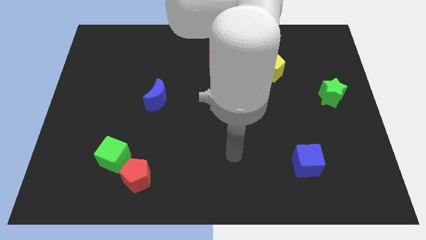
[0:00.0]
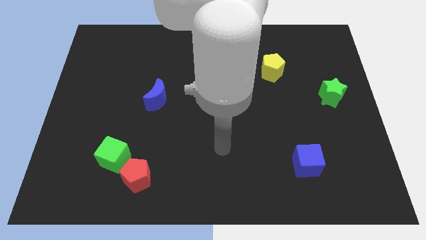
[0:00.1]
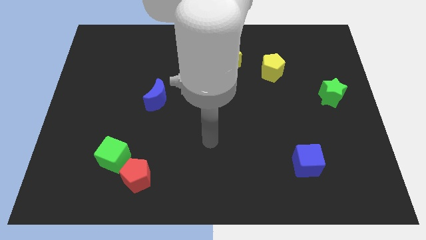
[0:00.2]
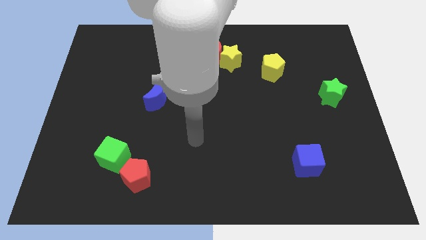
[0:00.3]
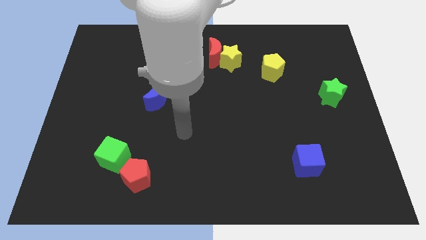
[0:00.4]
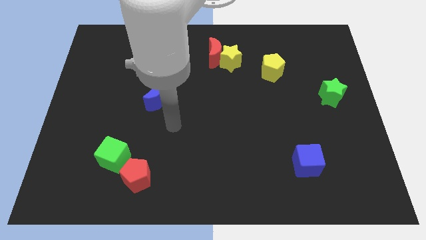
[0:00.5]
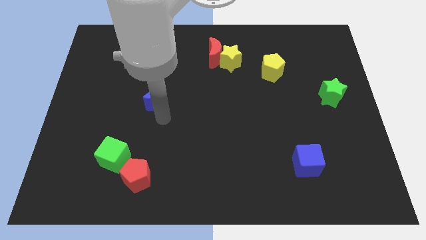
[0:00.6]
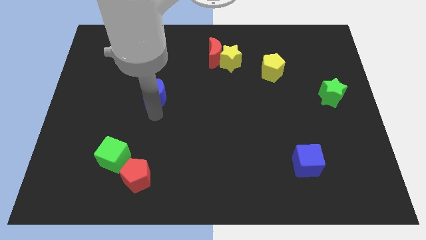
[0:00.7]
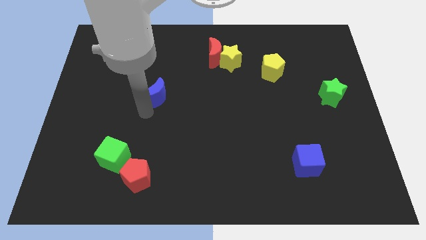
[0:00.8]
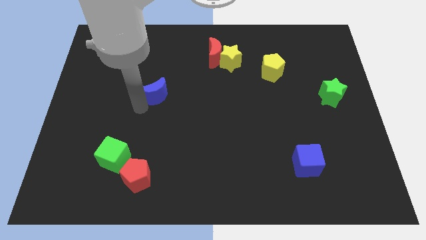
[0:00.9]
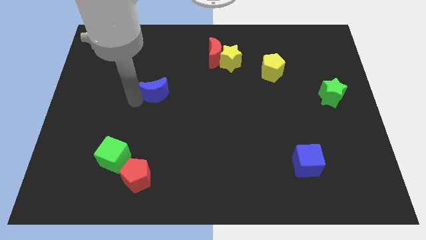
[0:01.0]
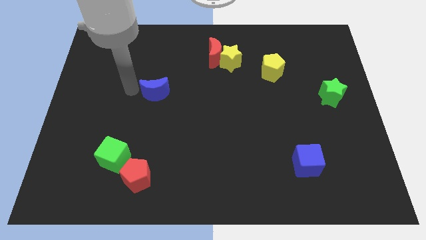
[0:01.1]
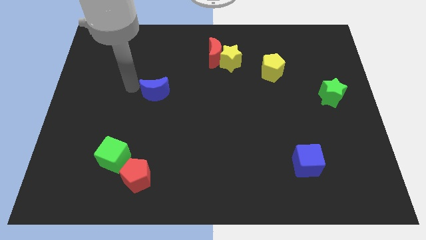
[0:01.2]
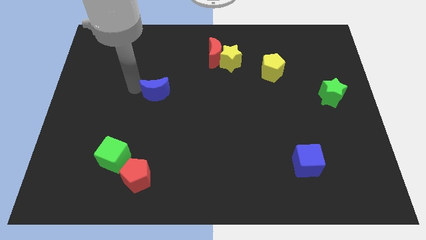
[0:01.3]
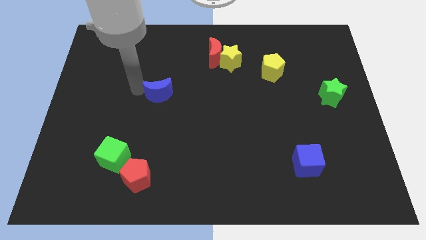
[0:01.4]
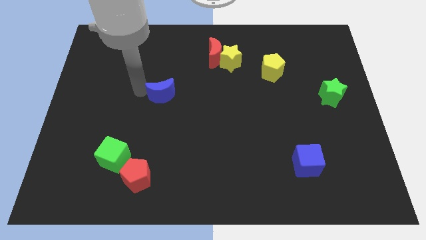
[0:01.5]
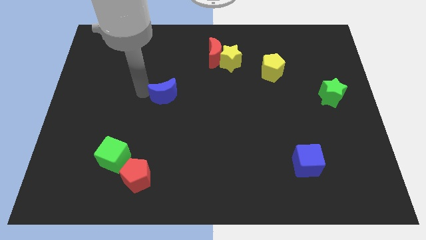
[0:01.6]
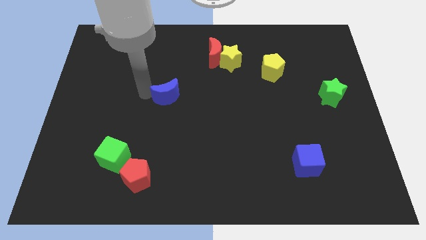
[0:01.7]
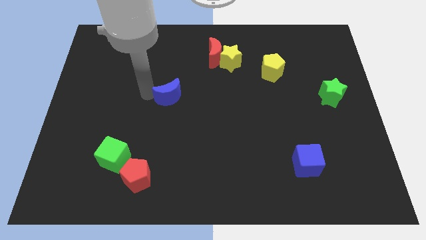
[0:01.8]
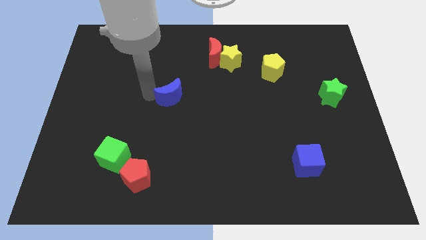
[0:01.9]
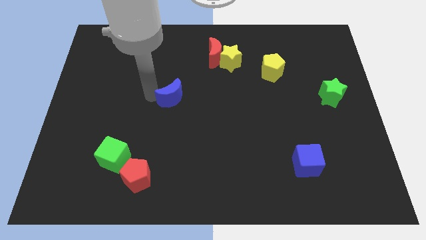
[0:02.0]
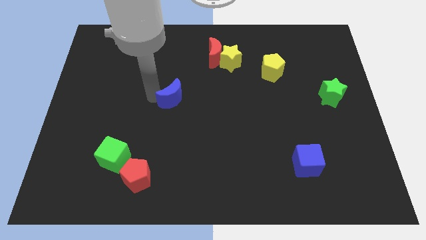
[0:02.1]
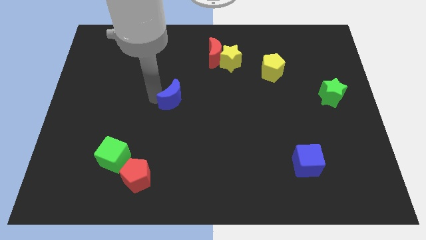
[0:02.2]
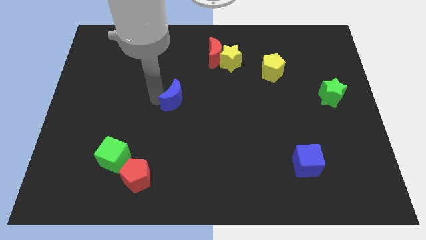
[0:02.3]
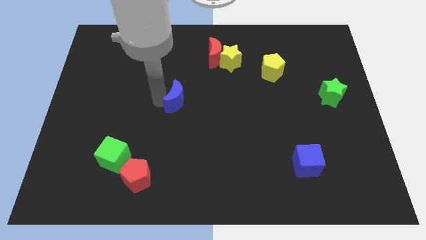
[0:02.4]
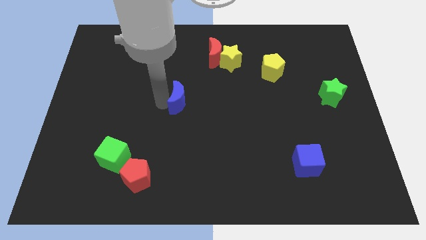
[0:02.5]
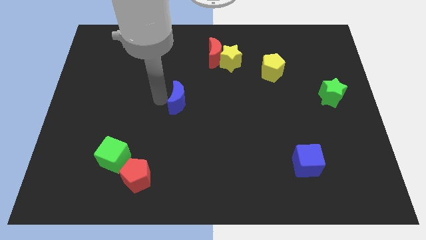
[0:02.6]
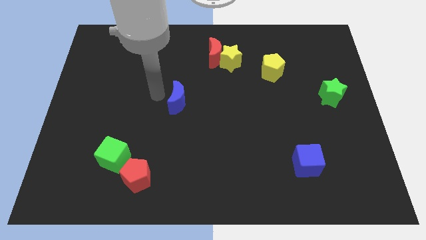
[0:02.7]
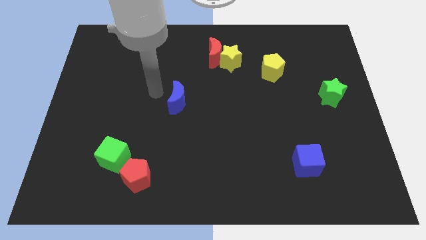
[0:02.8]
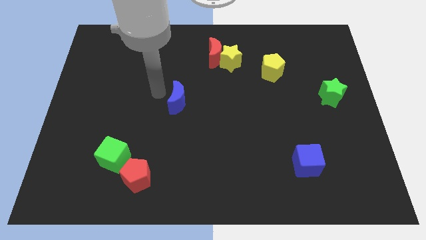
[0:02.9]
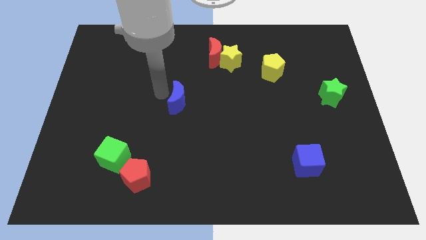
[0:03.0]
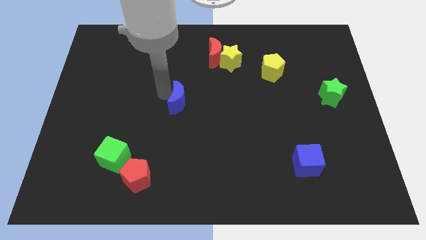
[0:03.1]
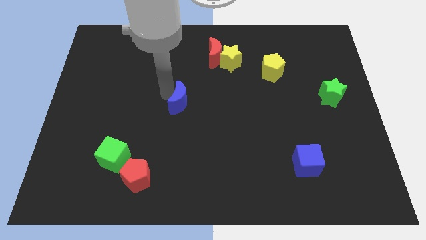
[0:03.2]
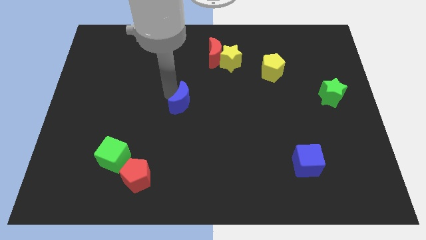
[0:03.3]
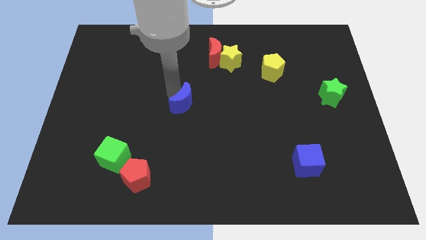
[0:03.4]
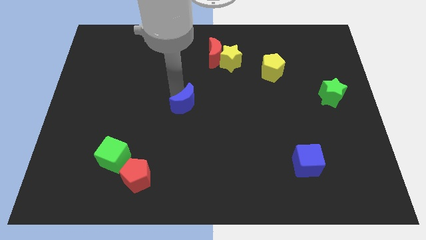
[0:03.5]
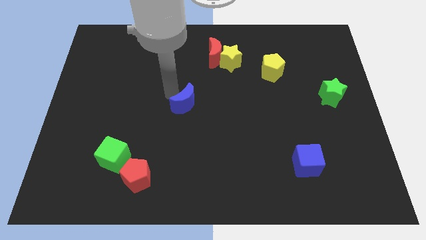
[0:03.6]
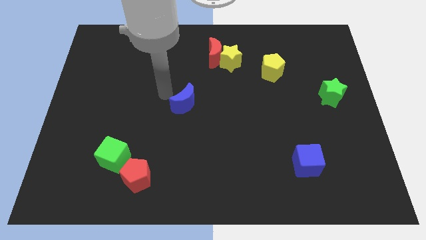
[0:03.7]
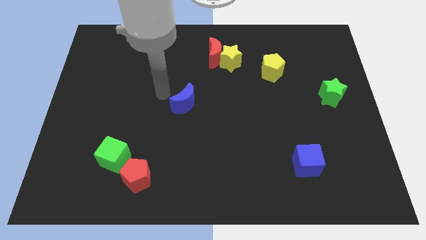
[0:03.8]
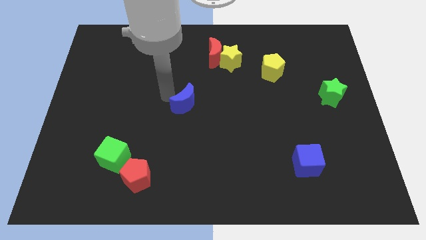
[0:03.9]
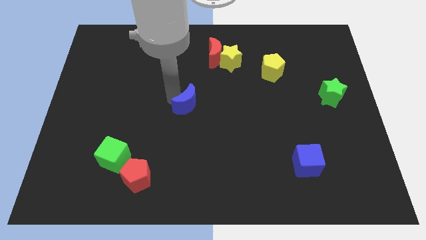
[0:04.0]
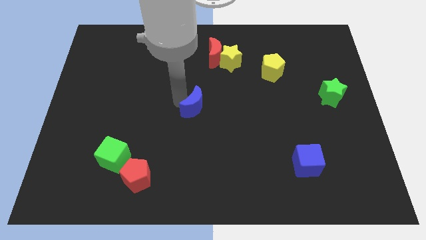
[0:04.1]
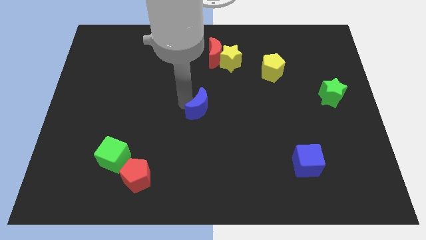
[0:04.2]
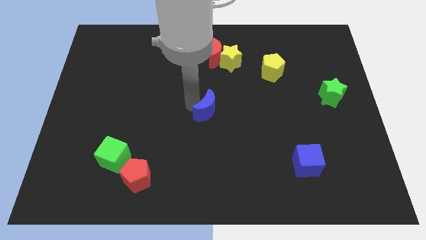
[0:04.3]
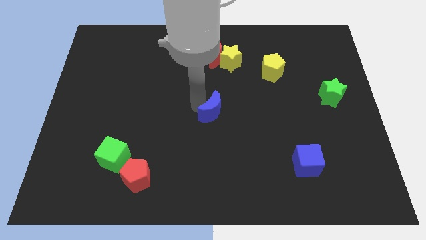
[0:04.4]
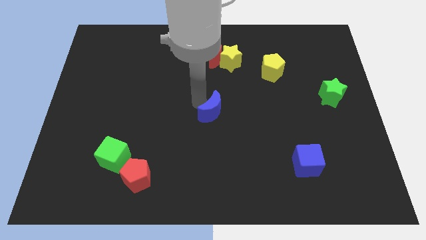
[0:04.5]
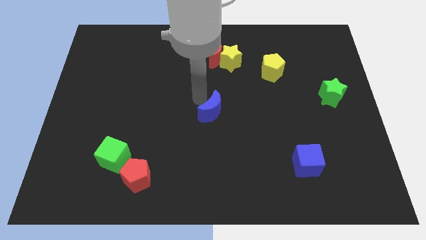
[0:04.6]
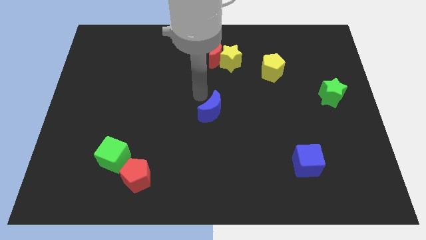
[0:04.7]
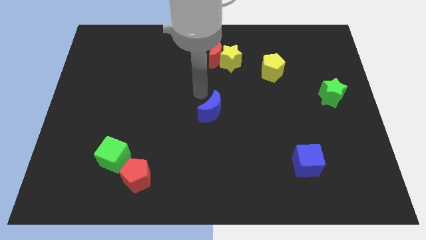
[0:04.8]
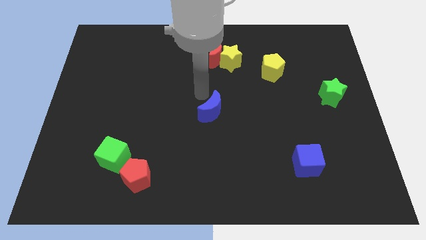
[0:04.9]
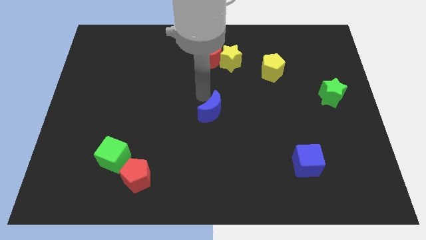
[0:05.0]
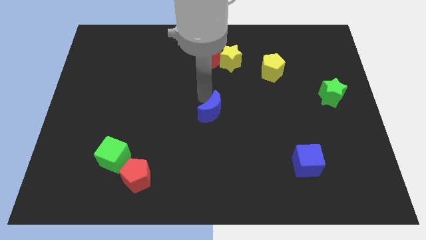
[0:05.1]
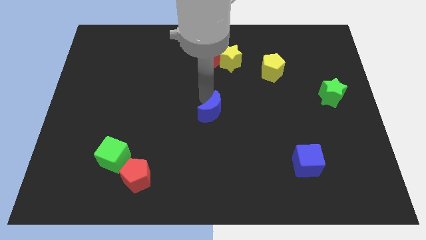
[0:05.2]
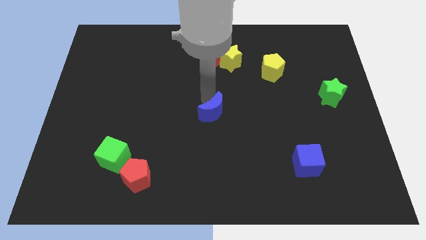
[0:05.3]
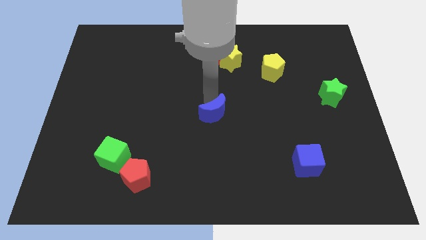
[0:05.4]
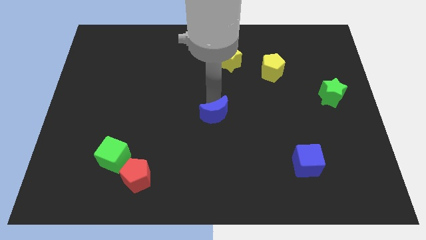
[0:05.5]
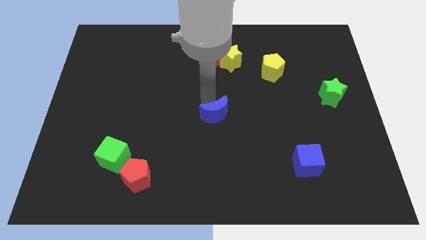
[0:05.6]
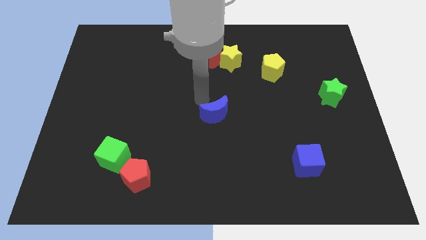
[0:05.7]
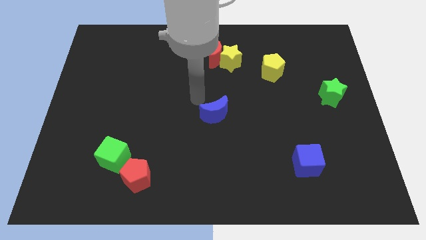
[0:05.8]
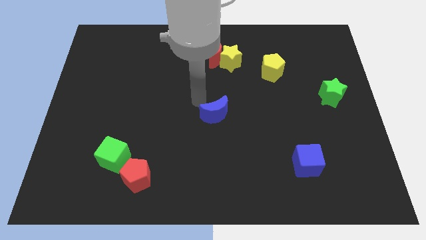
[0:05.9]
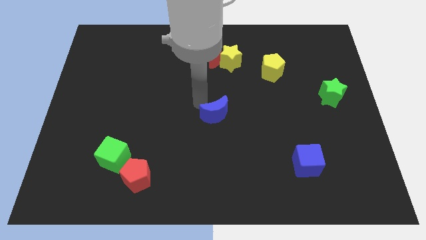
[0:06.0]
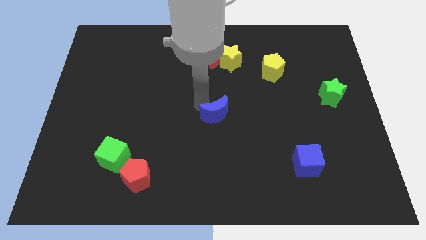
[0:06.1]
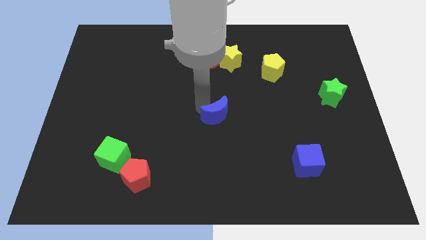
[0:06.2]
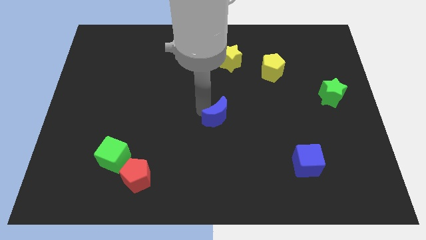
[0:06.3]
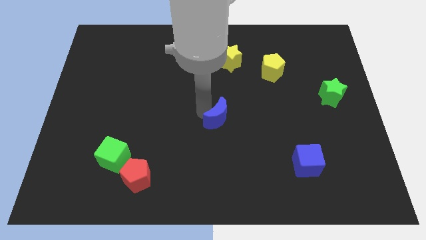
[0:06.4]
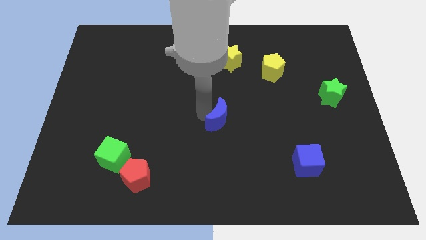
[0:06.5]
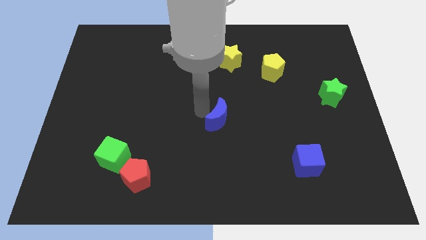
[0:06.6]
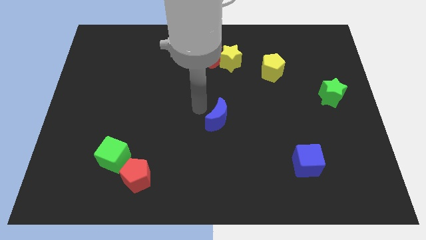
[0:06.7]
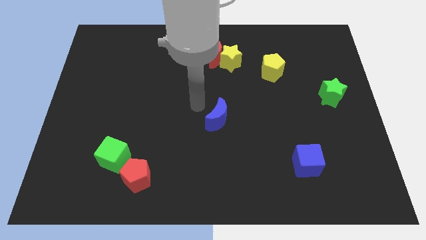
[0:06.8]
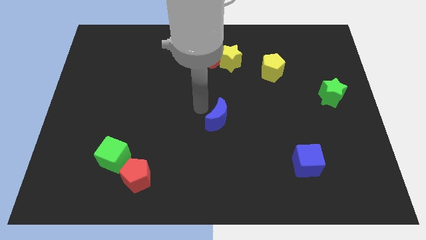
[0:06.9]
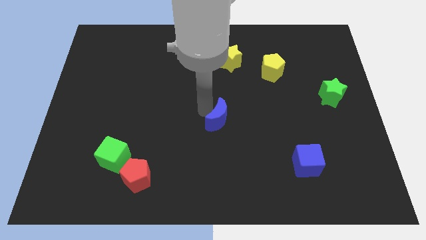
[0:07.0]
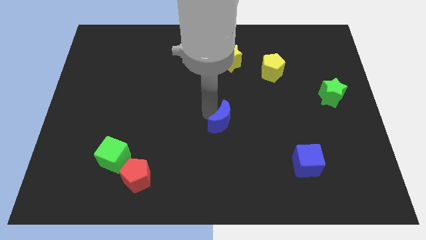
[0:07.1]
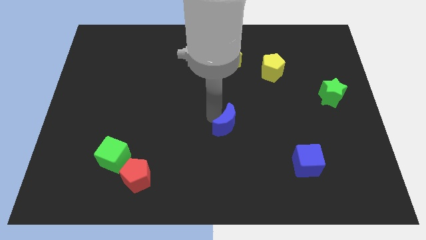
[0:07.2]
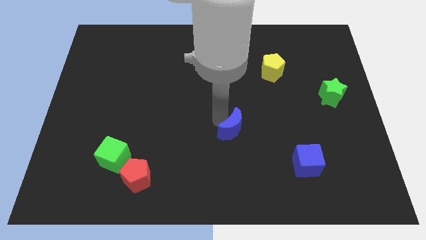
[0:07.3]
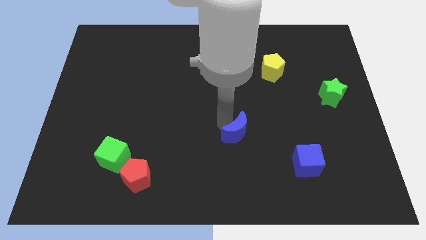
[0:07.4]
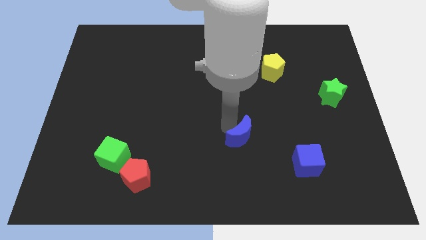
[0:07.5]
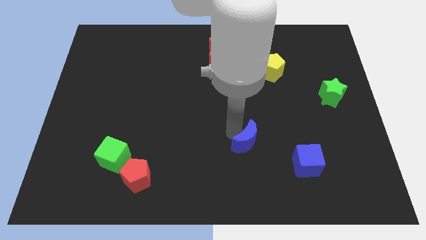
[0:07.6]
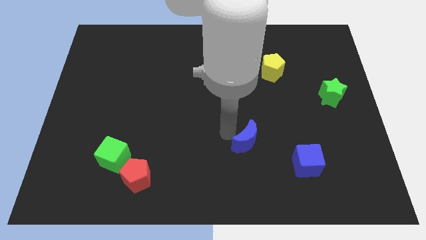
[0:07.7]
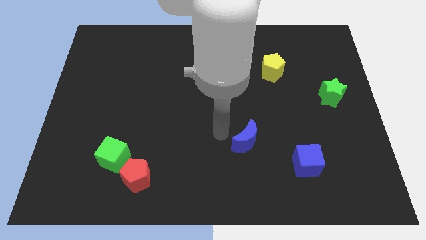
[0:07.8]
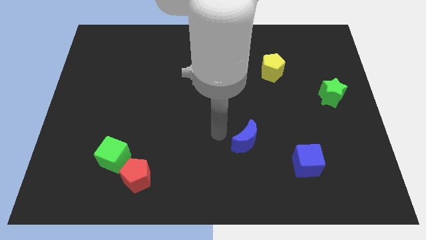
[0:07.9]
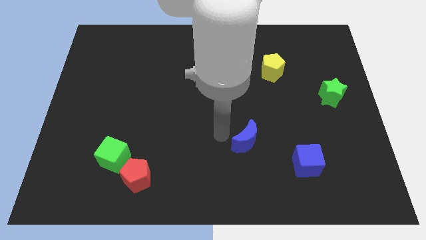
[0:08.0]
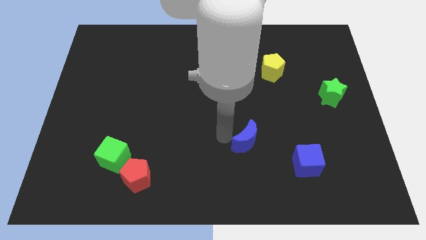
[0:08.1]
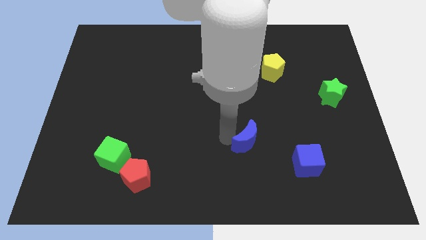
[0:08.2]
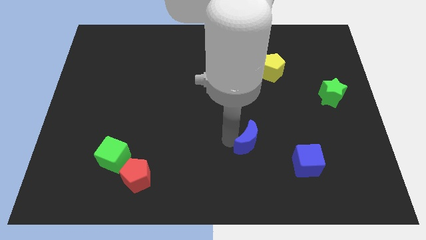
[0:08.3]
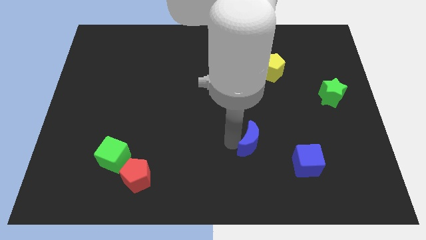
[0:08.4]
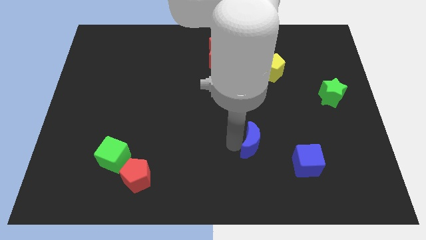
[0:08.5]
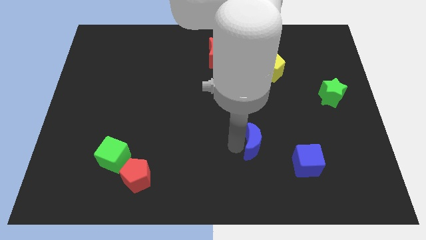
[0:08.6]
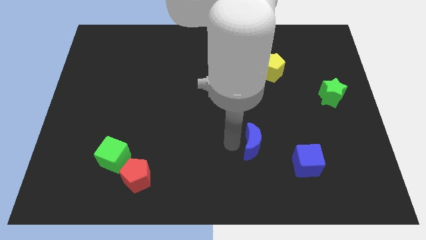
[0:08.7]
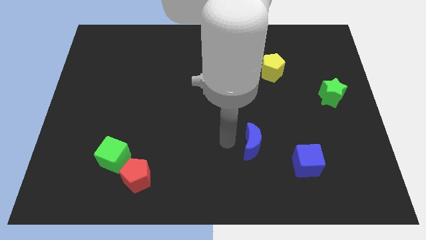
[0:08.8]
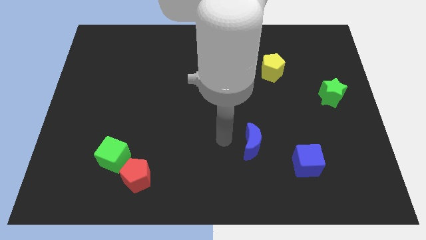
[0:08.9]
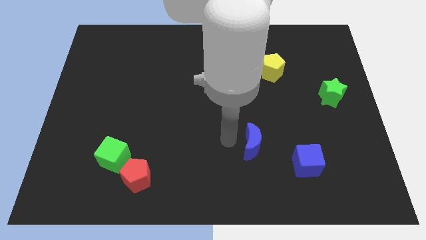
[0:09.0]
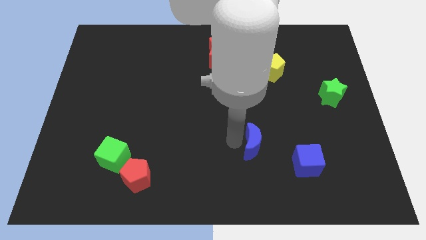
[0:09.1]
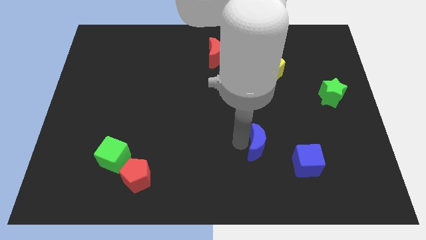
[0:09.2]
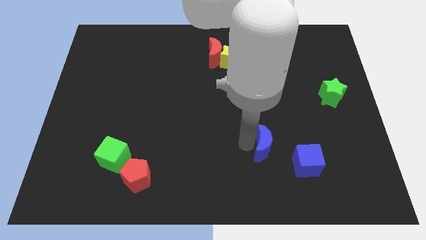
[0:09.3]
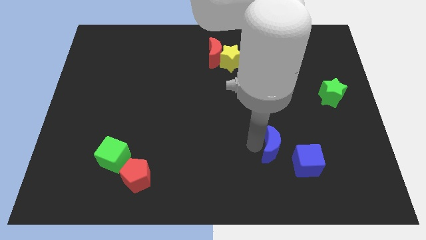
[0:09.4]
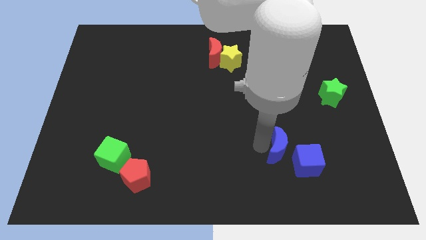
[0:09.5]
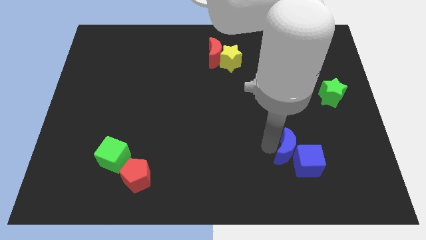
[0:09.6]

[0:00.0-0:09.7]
push the blue moon to the blue cube
